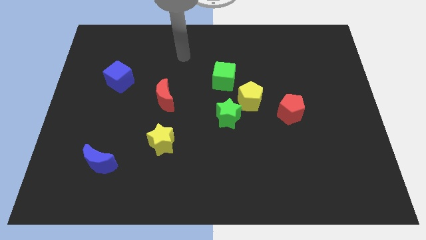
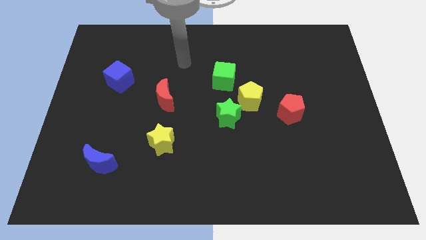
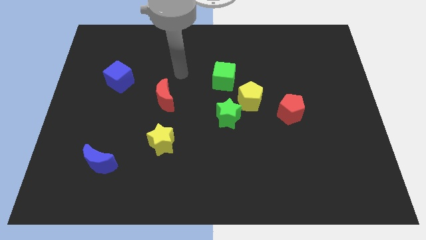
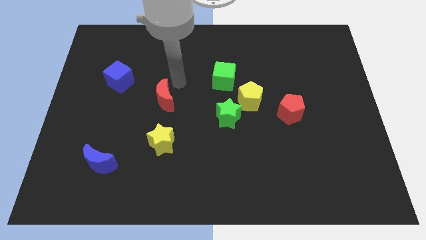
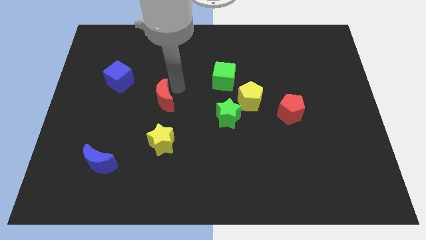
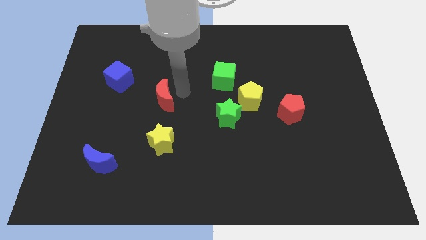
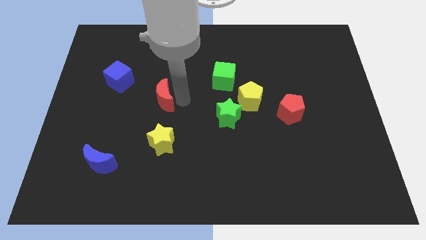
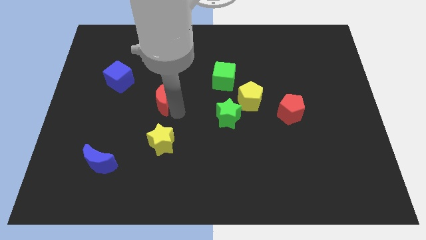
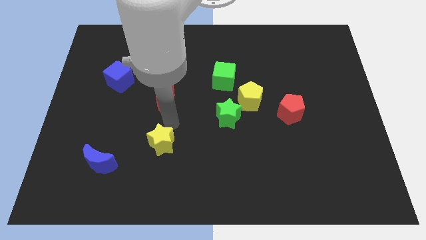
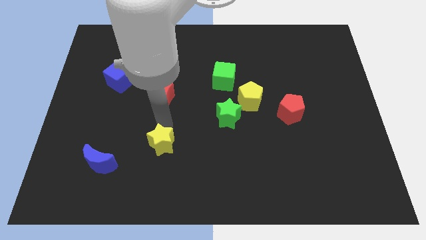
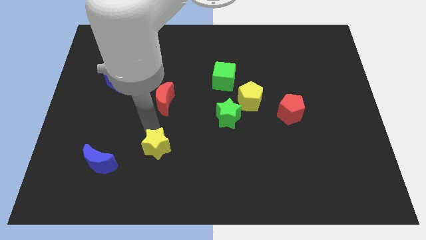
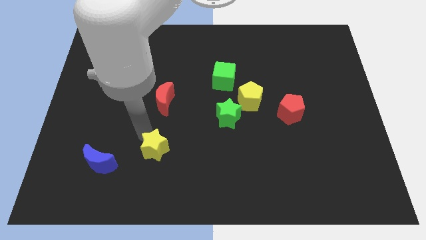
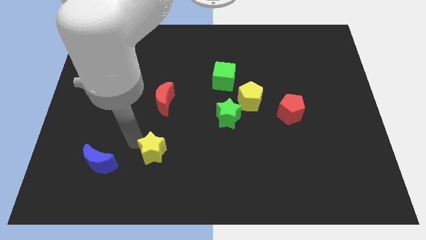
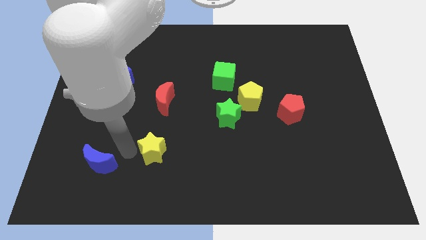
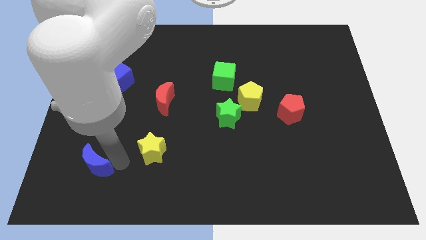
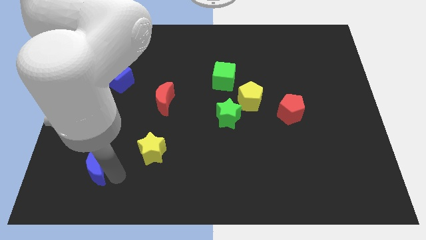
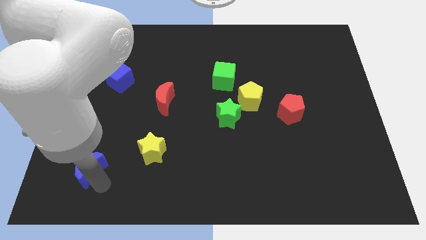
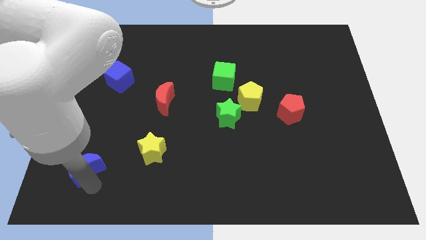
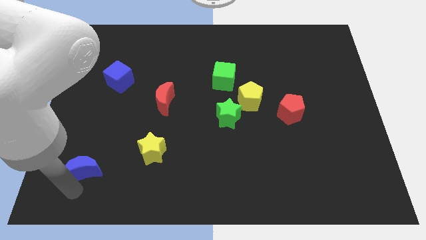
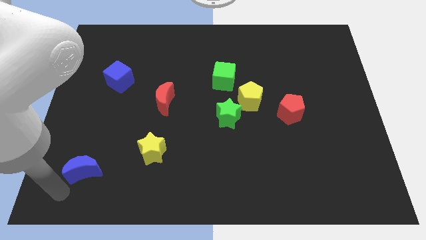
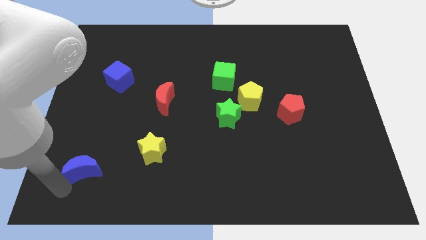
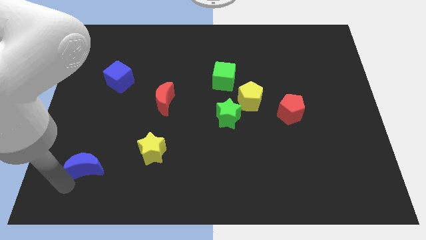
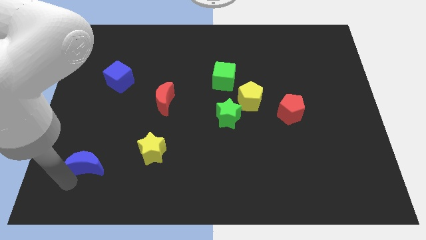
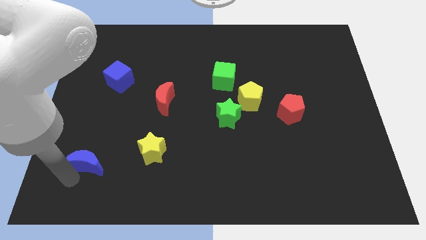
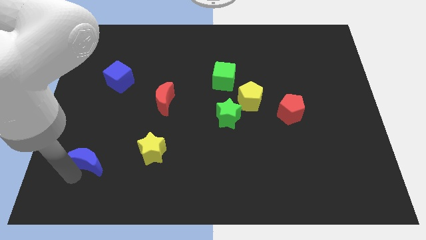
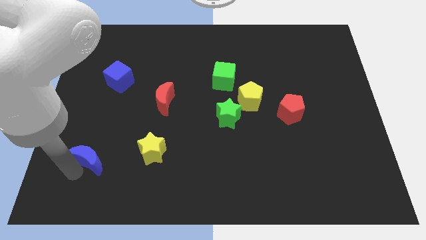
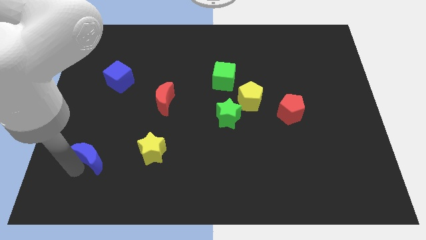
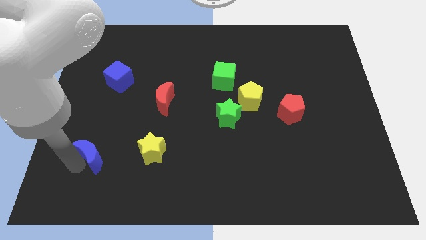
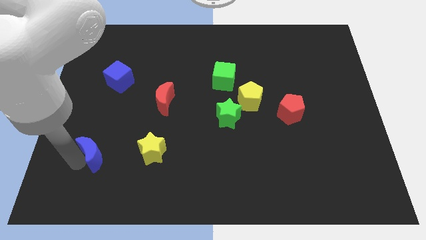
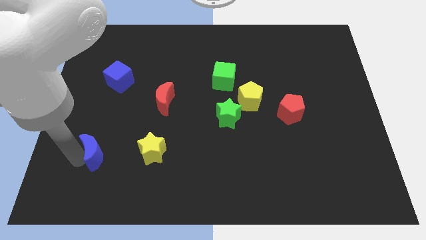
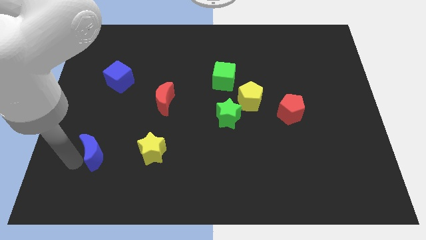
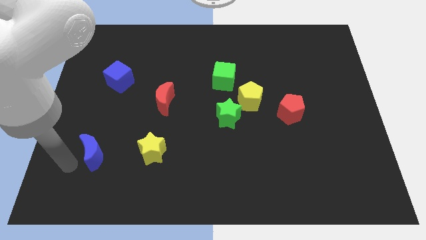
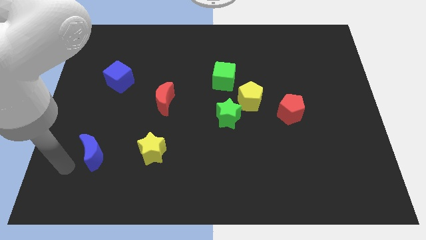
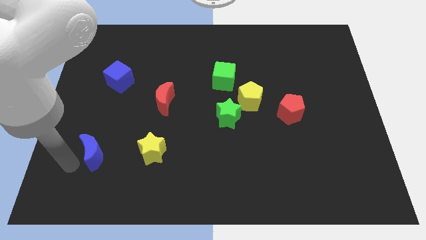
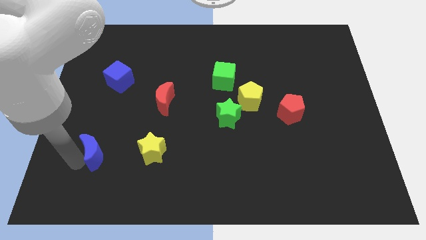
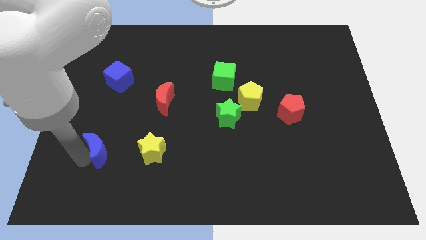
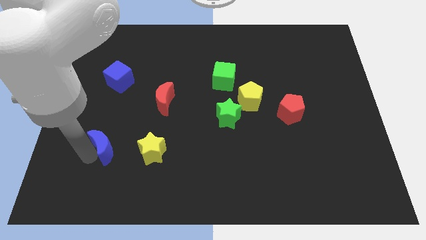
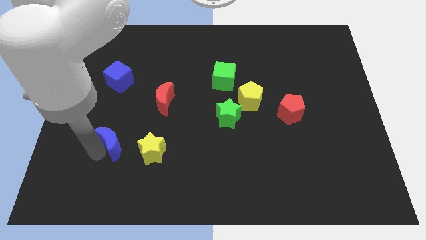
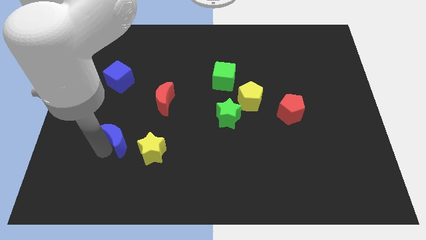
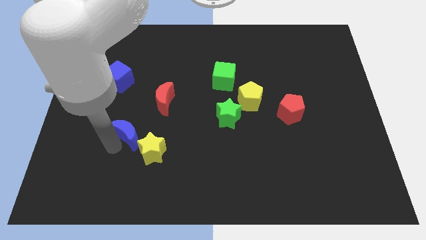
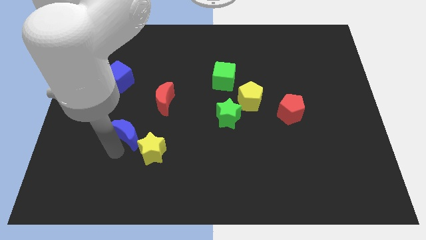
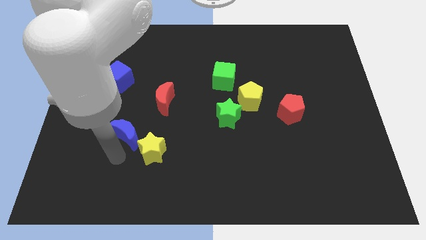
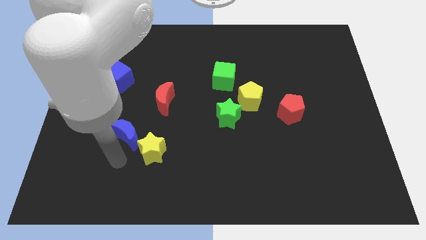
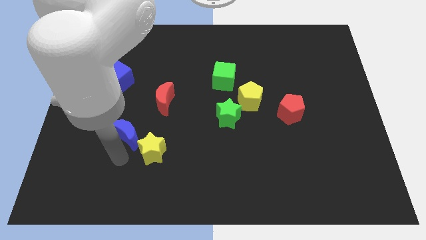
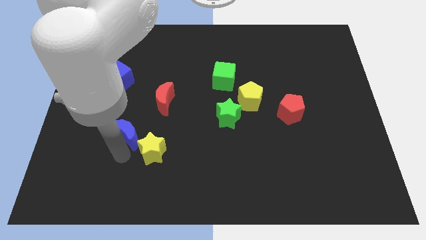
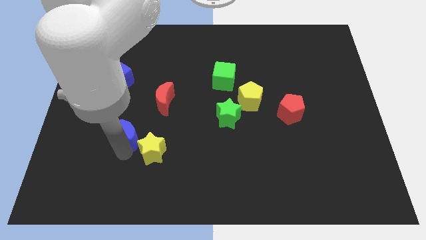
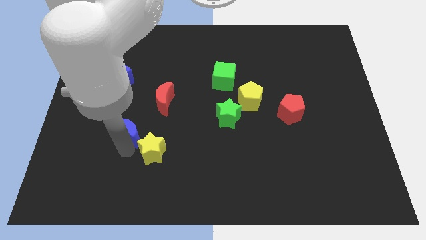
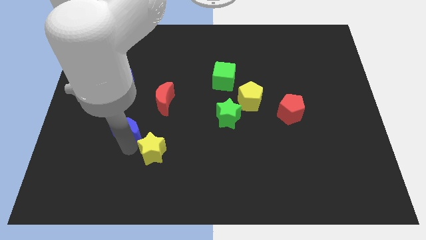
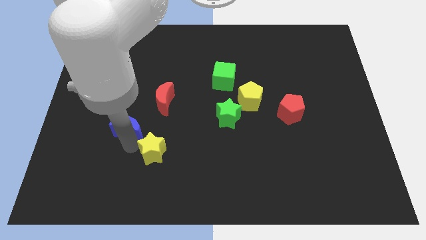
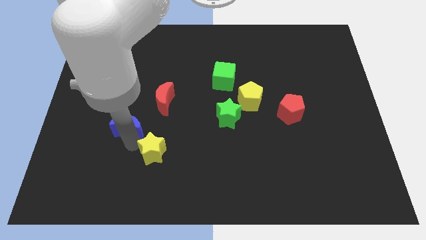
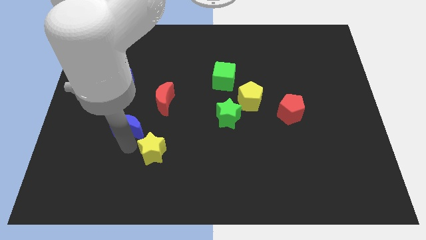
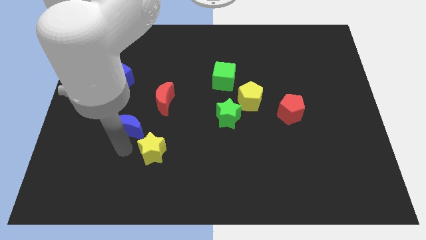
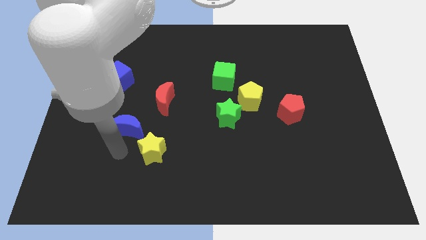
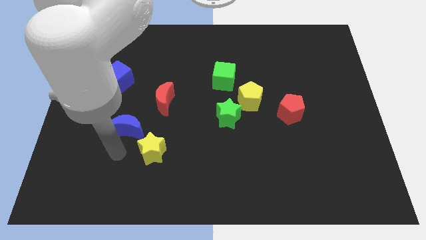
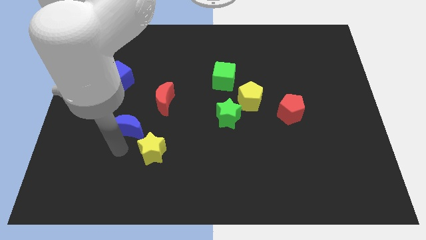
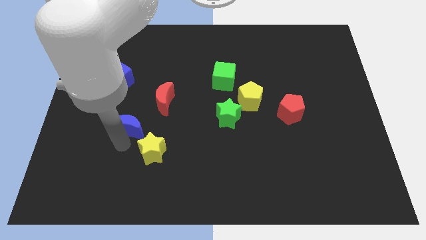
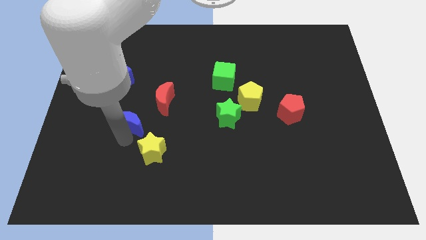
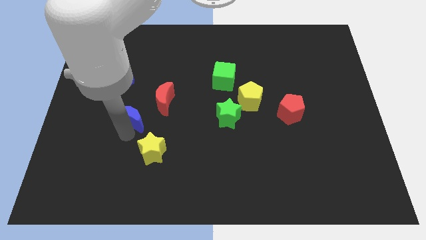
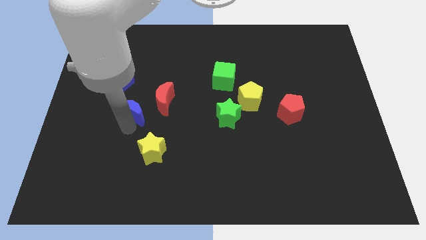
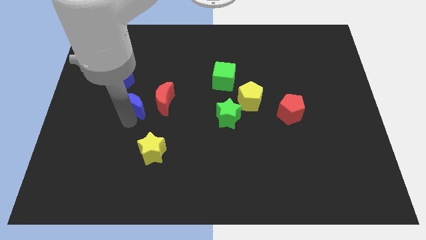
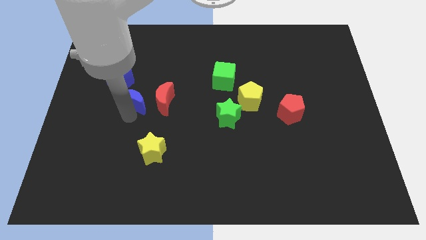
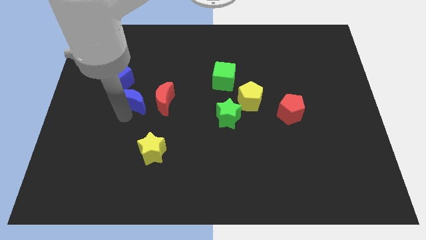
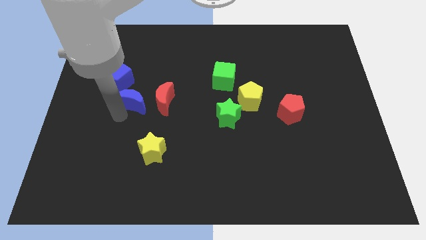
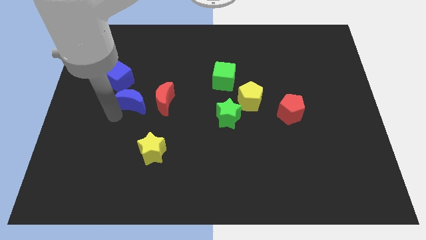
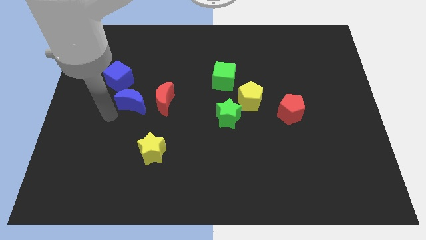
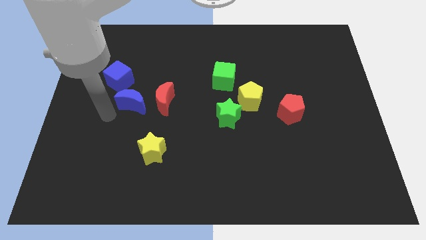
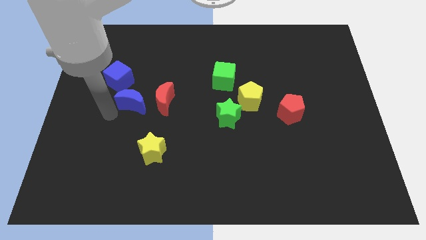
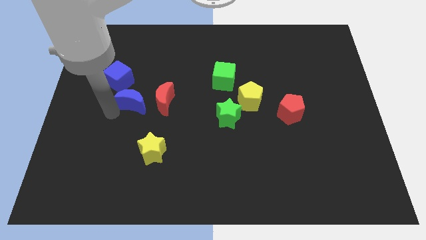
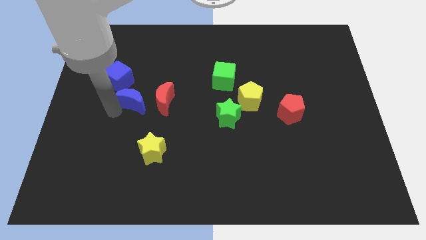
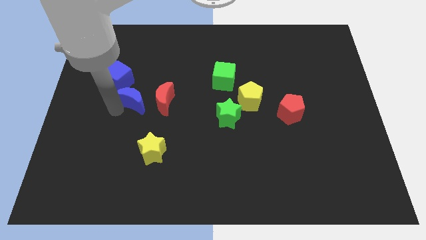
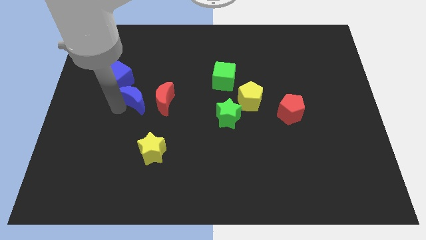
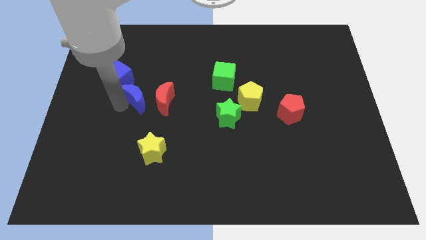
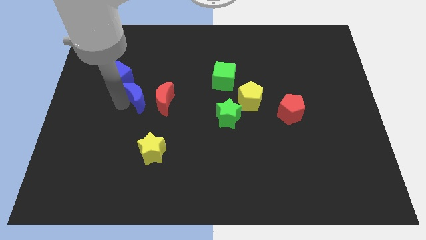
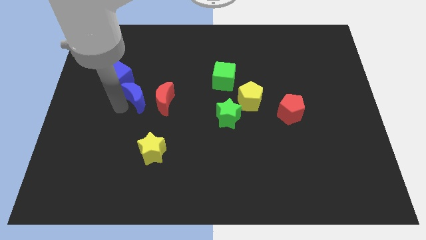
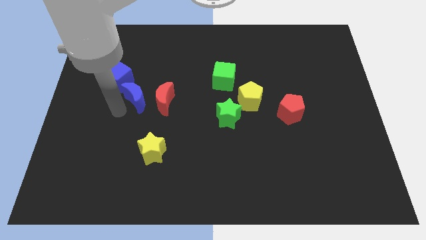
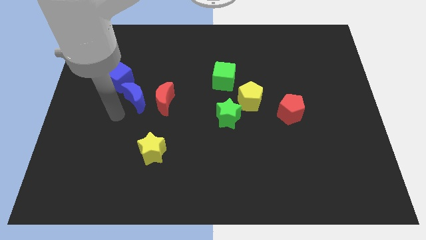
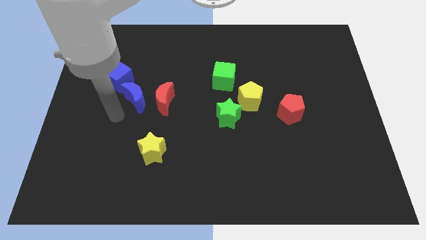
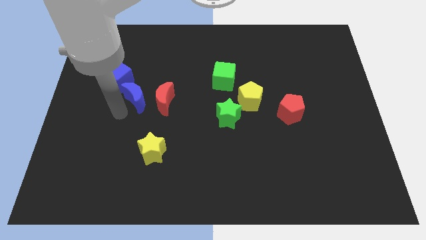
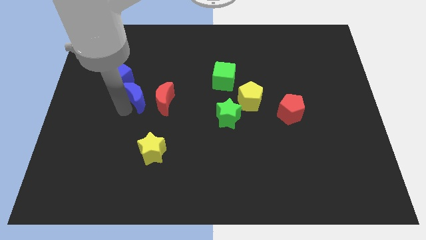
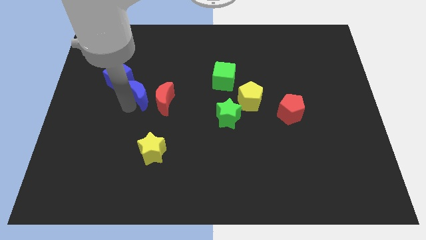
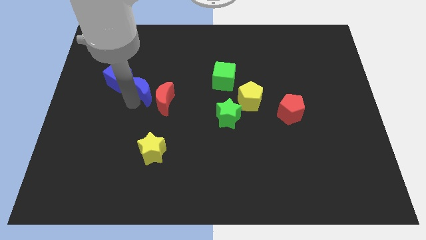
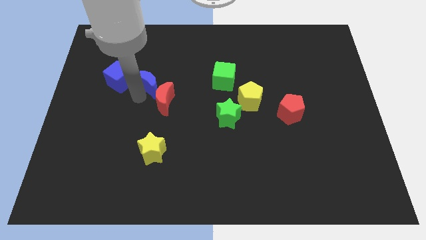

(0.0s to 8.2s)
push the blue moon to the top of the red moon
